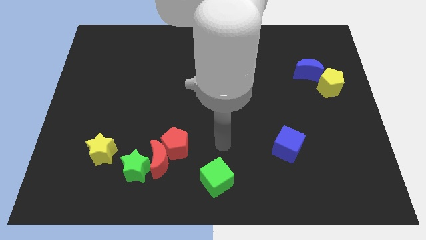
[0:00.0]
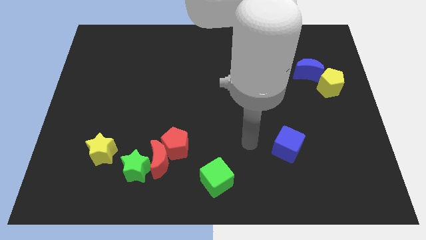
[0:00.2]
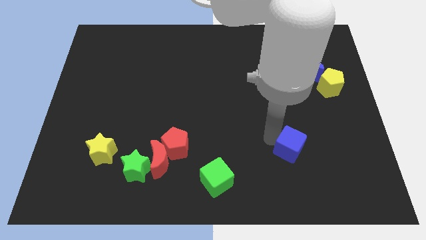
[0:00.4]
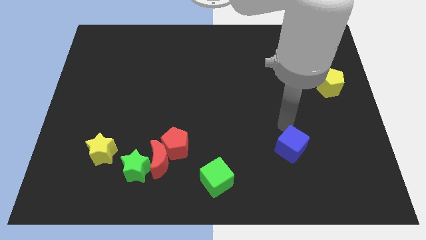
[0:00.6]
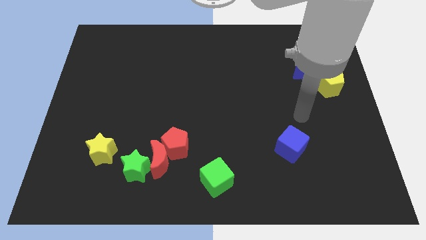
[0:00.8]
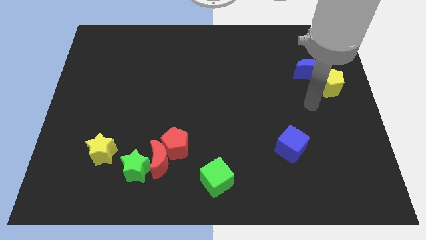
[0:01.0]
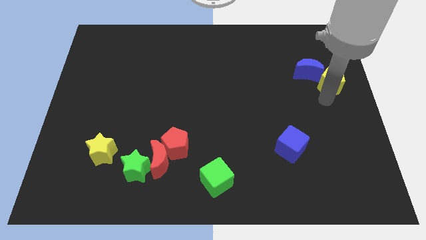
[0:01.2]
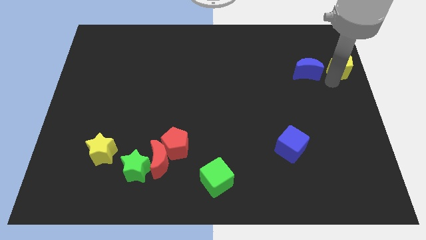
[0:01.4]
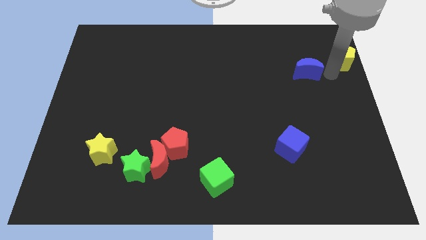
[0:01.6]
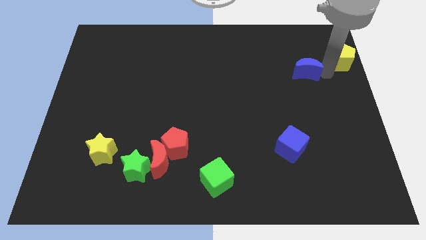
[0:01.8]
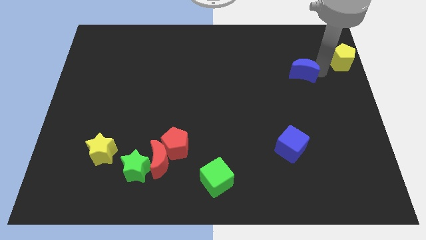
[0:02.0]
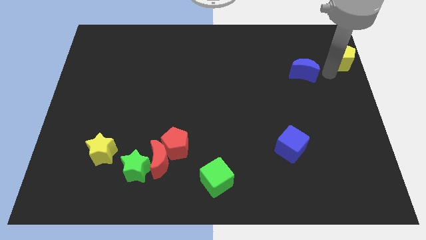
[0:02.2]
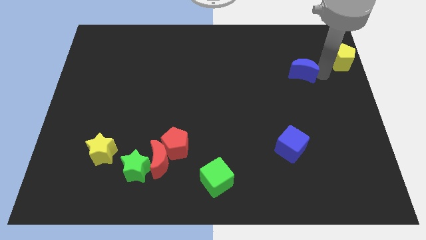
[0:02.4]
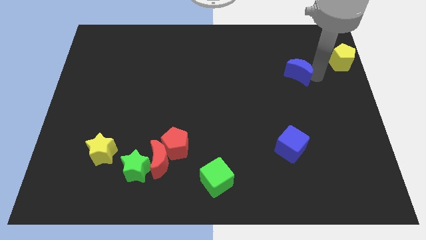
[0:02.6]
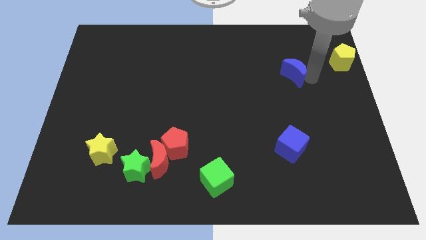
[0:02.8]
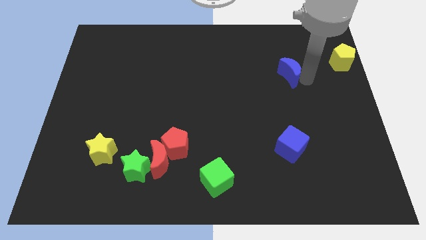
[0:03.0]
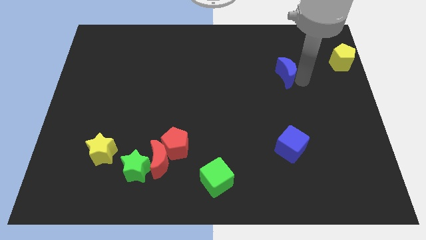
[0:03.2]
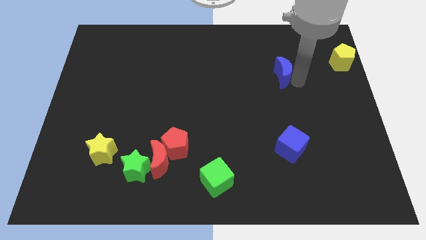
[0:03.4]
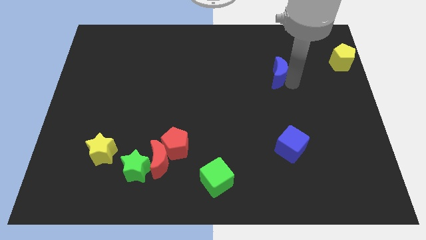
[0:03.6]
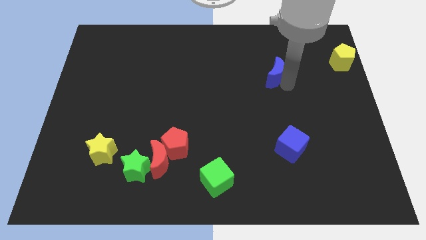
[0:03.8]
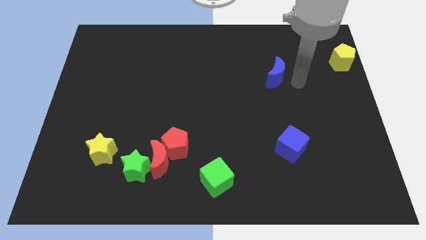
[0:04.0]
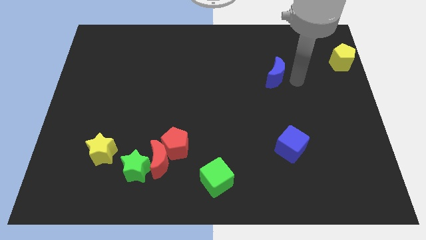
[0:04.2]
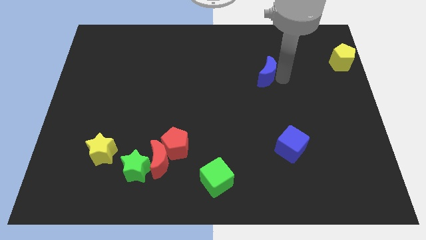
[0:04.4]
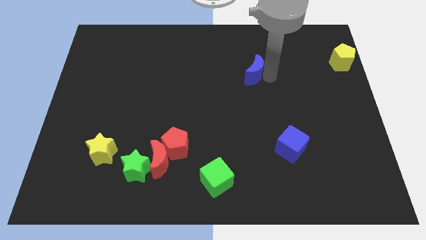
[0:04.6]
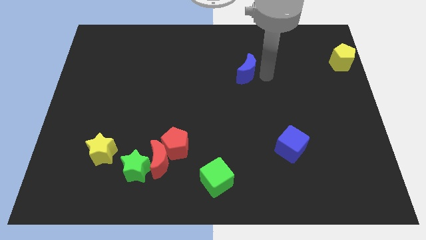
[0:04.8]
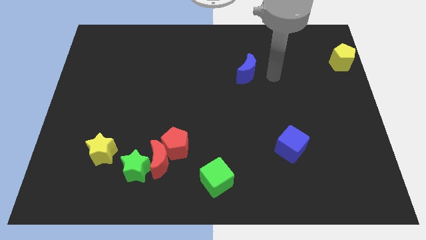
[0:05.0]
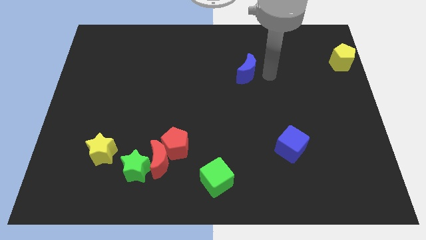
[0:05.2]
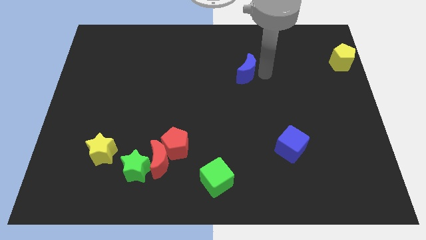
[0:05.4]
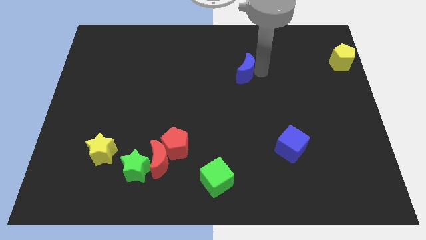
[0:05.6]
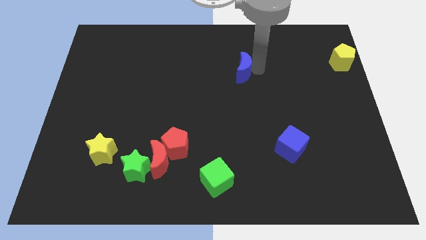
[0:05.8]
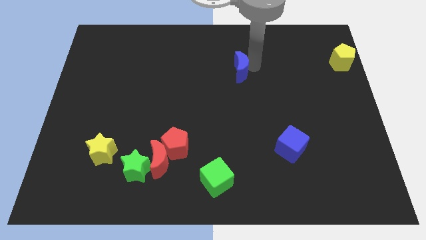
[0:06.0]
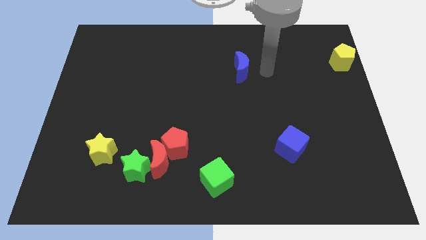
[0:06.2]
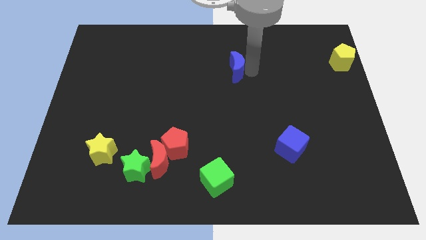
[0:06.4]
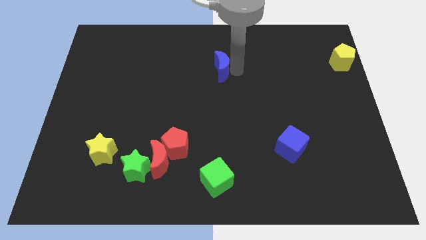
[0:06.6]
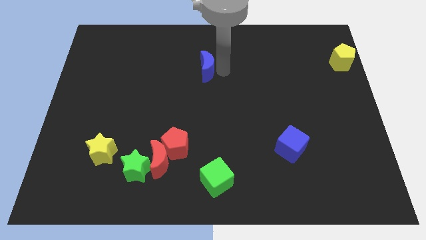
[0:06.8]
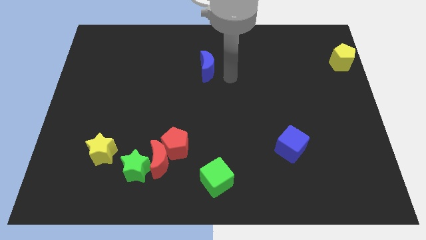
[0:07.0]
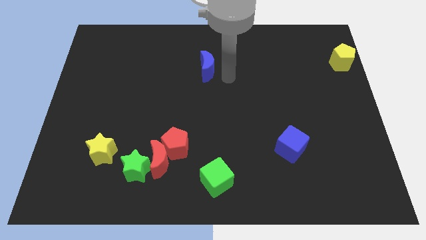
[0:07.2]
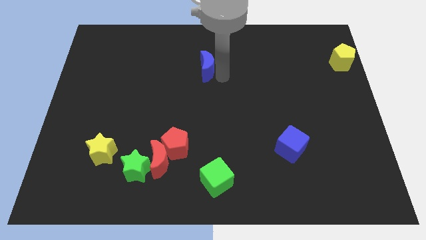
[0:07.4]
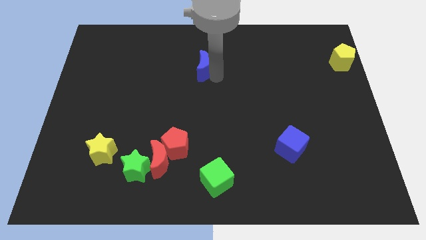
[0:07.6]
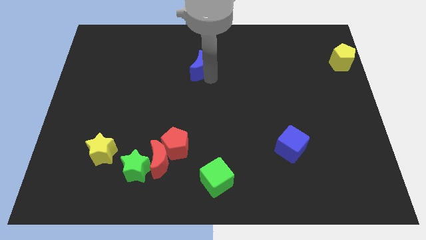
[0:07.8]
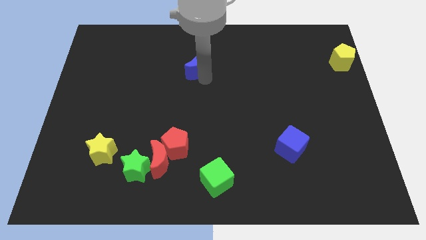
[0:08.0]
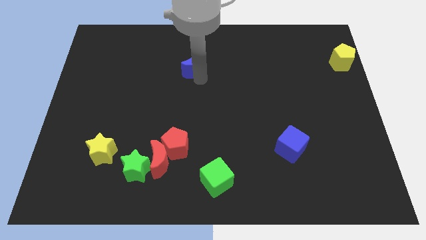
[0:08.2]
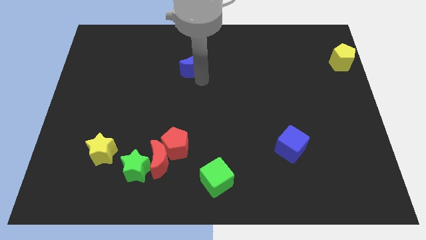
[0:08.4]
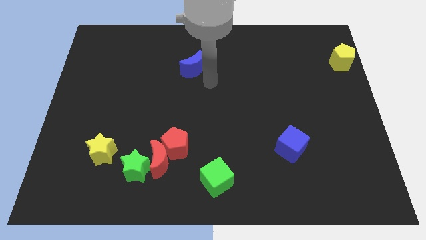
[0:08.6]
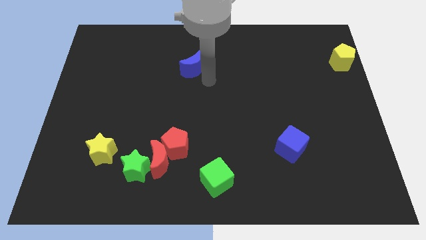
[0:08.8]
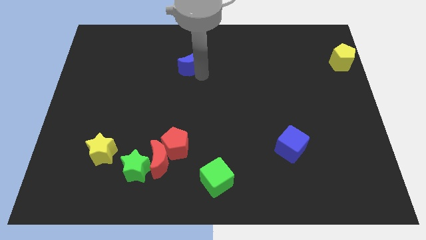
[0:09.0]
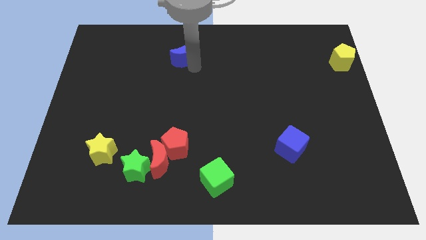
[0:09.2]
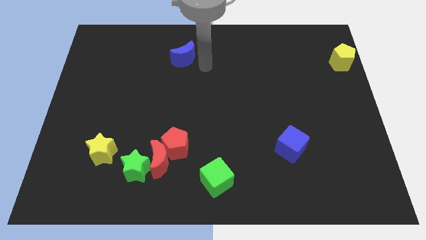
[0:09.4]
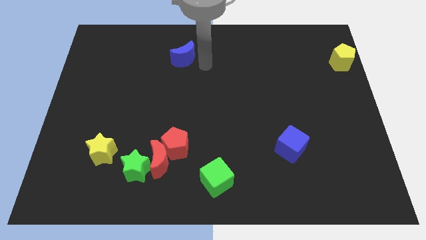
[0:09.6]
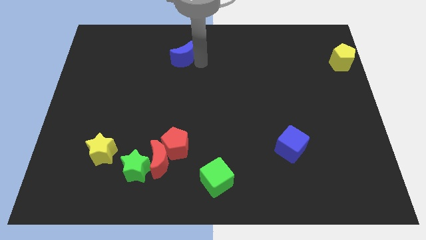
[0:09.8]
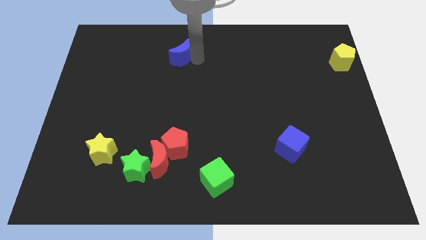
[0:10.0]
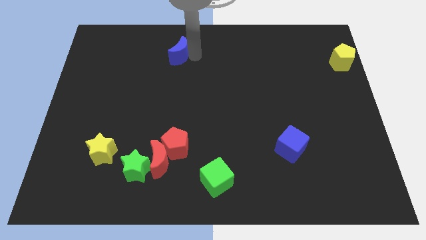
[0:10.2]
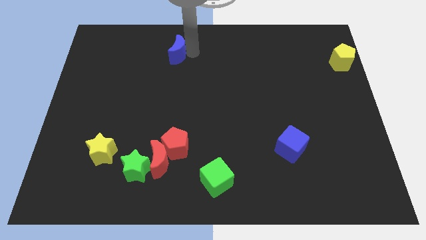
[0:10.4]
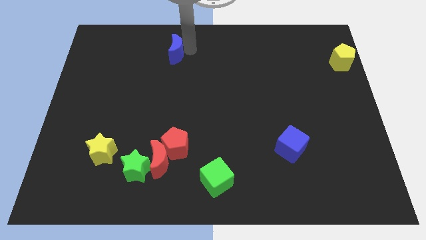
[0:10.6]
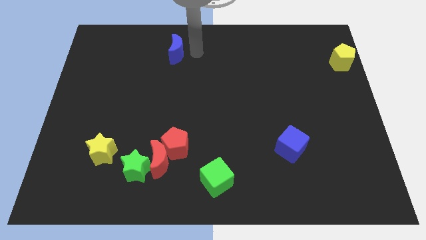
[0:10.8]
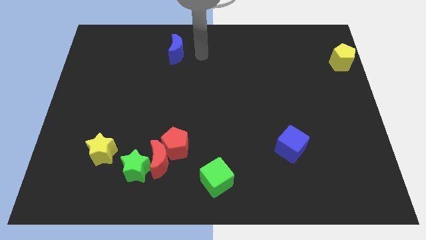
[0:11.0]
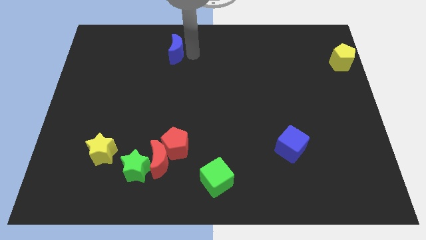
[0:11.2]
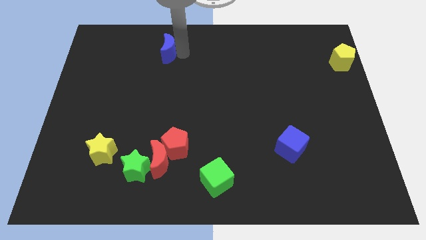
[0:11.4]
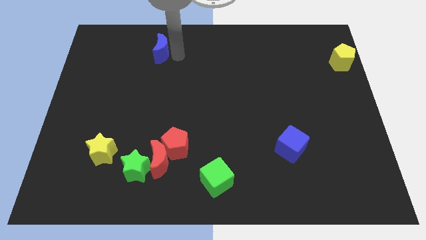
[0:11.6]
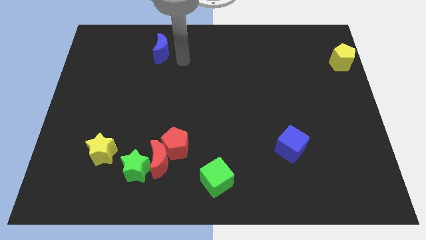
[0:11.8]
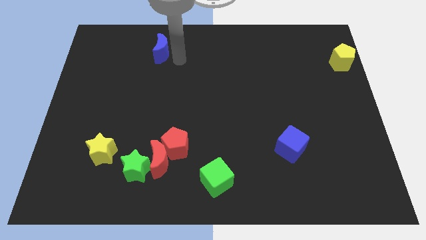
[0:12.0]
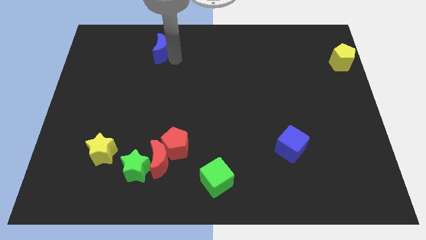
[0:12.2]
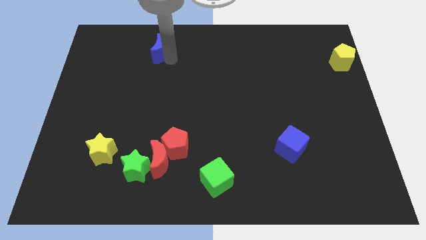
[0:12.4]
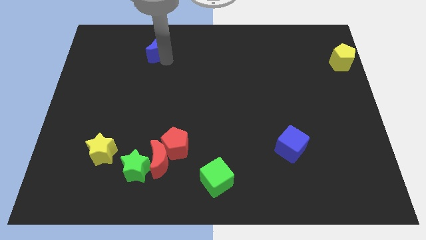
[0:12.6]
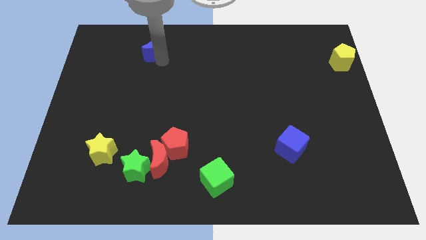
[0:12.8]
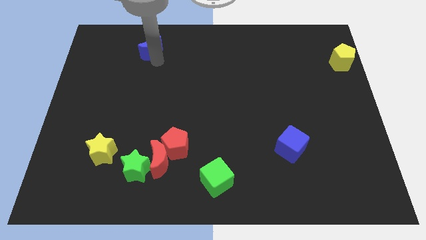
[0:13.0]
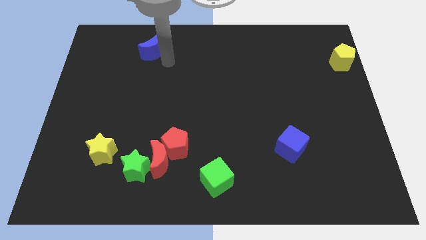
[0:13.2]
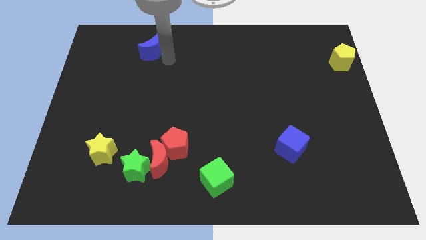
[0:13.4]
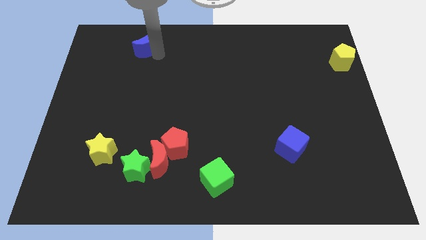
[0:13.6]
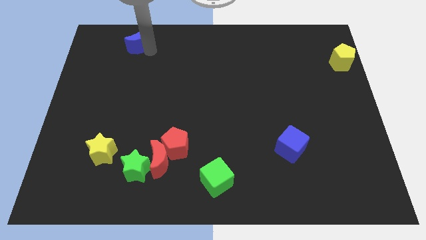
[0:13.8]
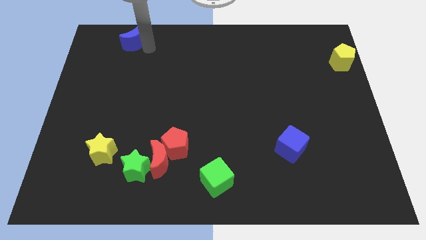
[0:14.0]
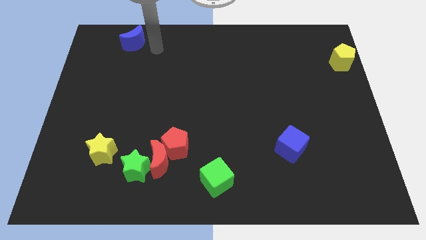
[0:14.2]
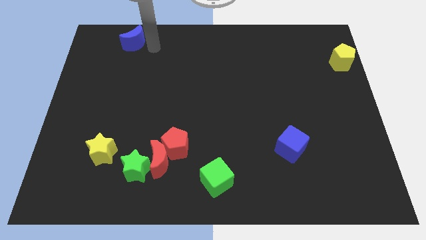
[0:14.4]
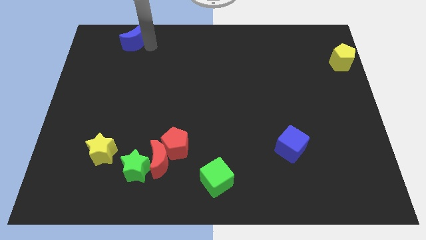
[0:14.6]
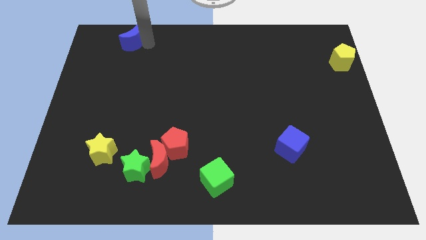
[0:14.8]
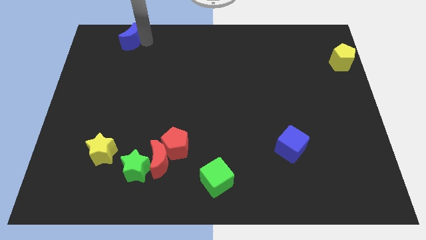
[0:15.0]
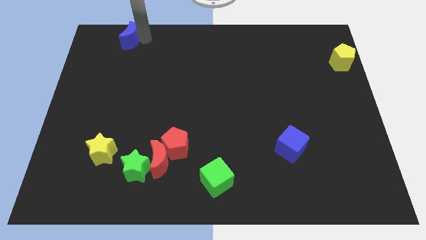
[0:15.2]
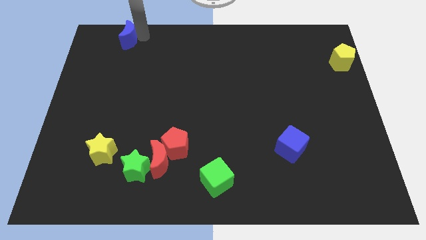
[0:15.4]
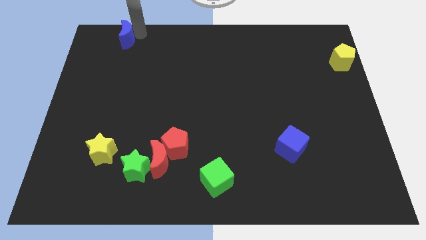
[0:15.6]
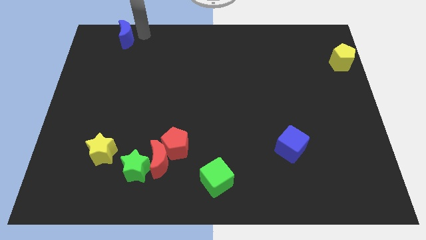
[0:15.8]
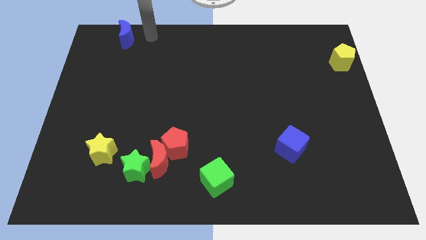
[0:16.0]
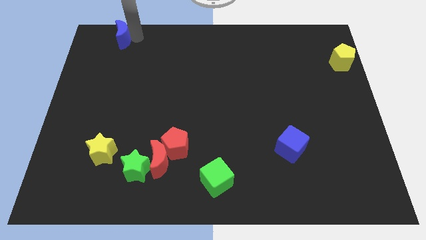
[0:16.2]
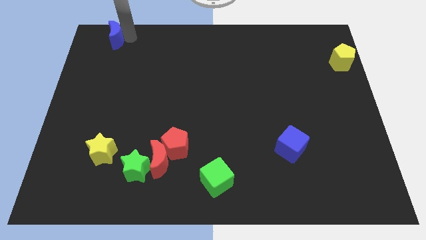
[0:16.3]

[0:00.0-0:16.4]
push the blue moon to the top left of the board
